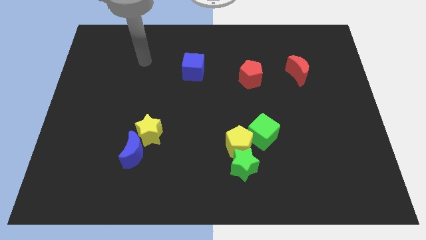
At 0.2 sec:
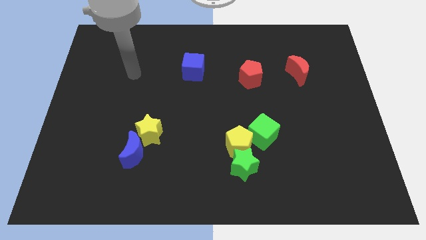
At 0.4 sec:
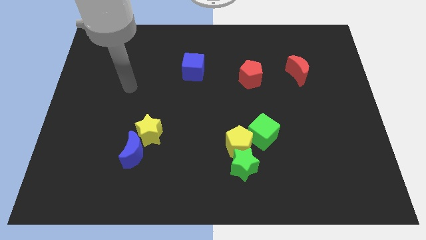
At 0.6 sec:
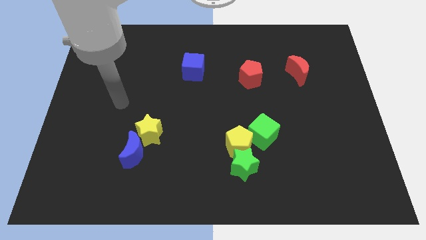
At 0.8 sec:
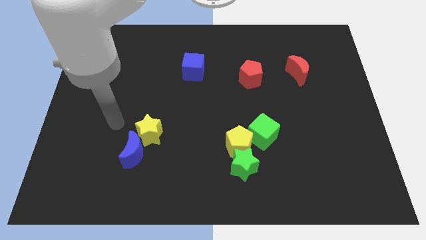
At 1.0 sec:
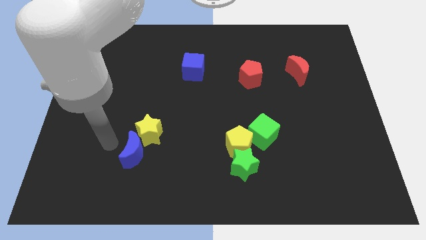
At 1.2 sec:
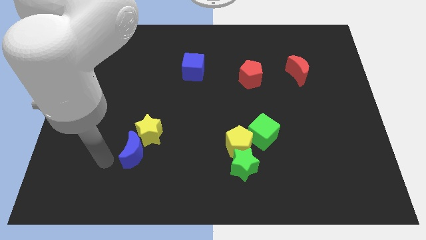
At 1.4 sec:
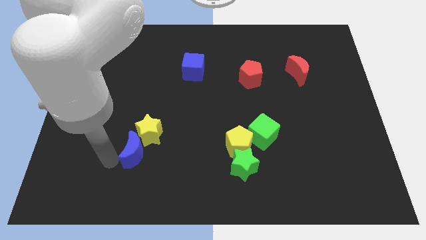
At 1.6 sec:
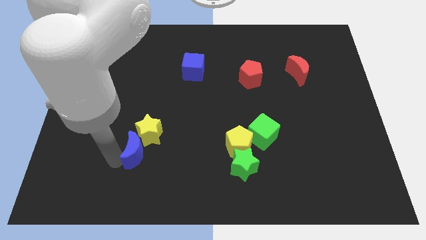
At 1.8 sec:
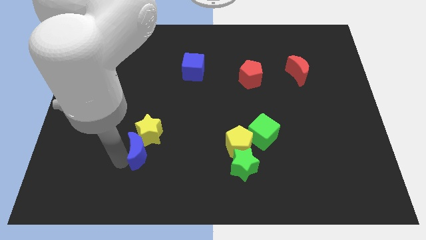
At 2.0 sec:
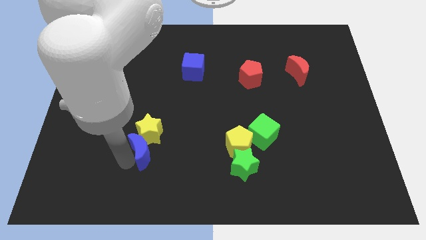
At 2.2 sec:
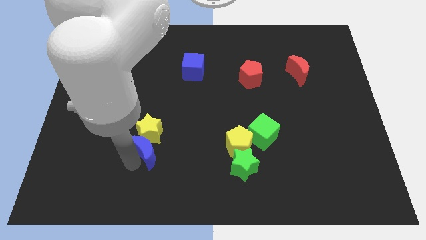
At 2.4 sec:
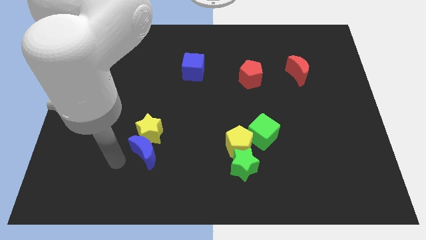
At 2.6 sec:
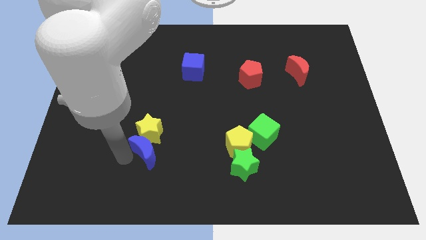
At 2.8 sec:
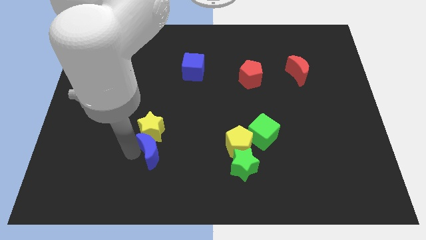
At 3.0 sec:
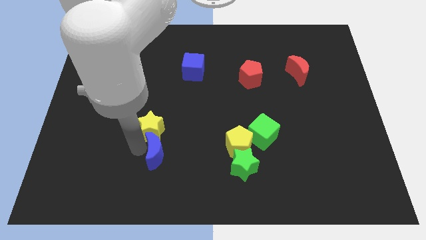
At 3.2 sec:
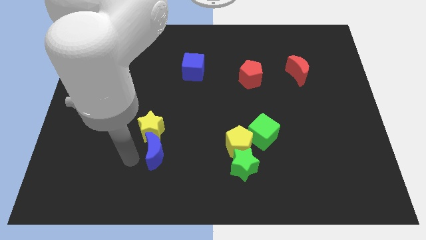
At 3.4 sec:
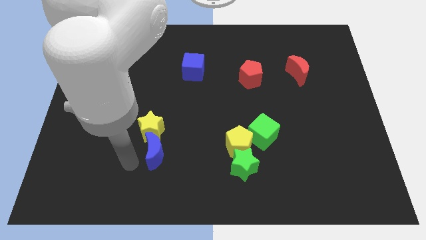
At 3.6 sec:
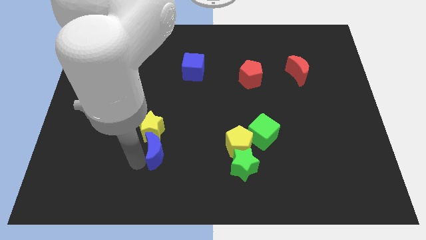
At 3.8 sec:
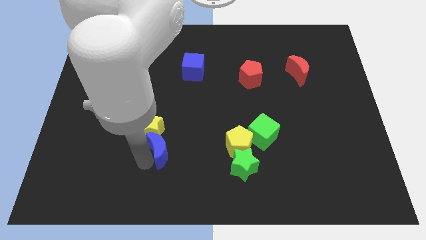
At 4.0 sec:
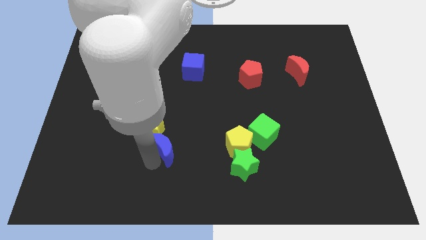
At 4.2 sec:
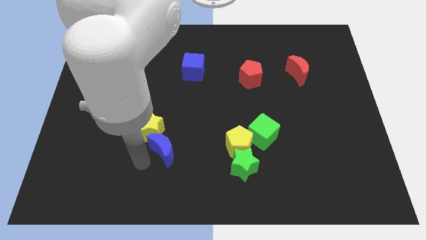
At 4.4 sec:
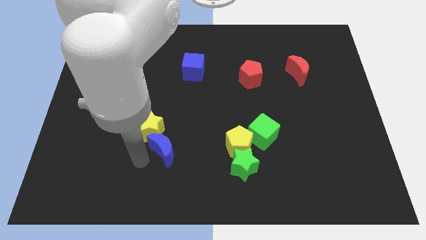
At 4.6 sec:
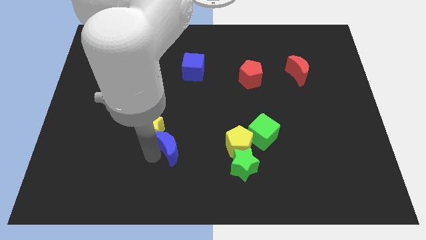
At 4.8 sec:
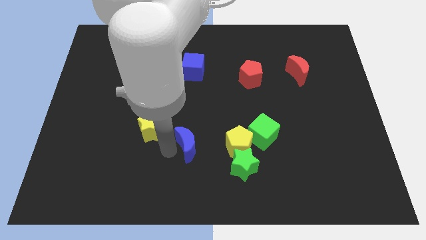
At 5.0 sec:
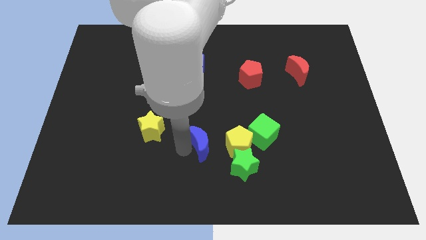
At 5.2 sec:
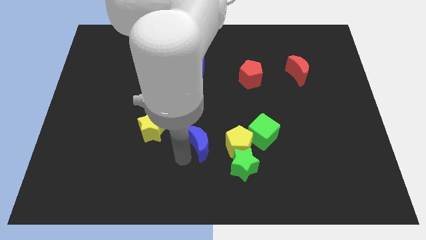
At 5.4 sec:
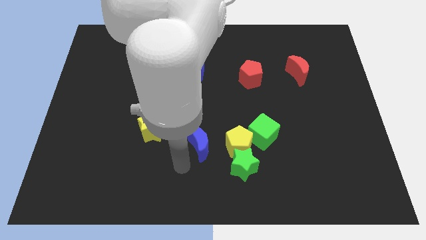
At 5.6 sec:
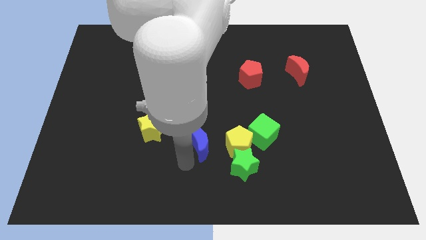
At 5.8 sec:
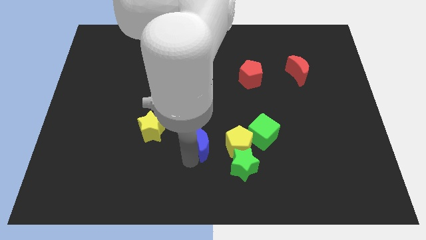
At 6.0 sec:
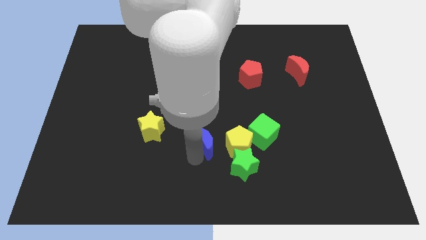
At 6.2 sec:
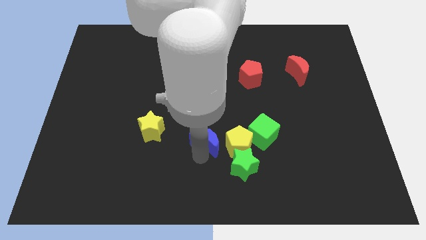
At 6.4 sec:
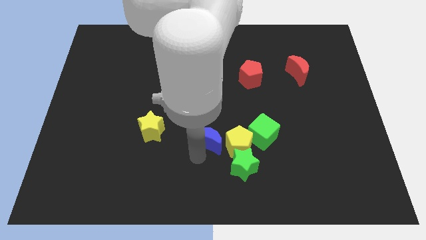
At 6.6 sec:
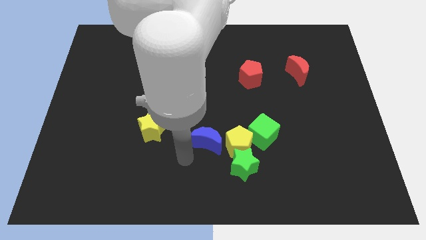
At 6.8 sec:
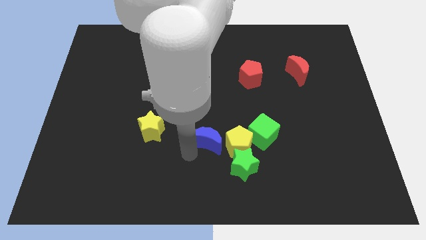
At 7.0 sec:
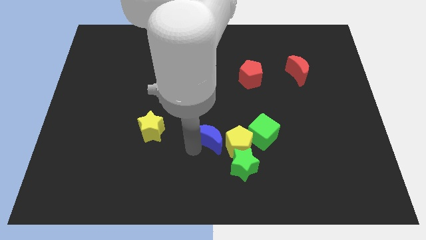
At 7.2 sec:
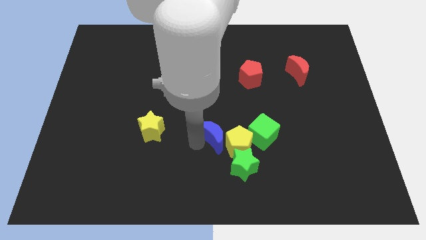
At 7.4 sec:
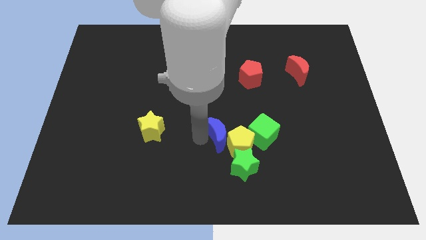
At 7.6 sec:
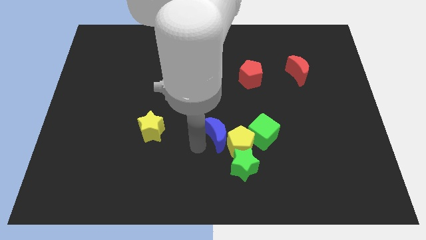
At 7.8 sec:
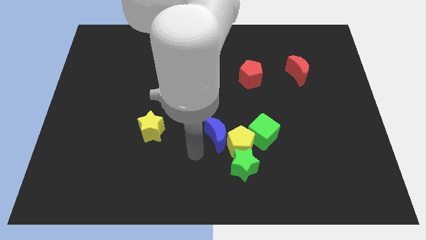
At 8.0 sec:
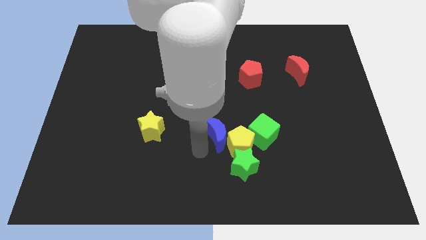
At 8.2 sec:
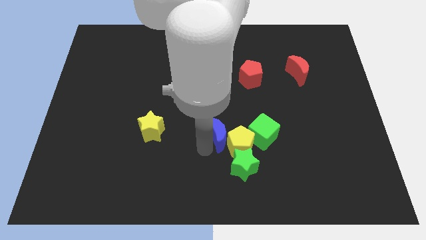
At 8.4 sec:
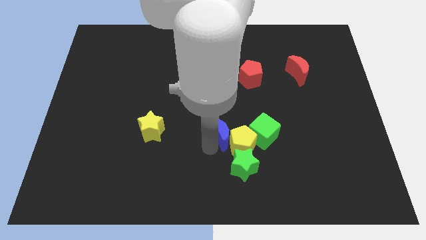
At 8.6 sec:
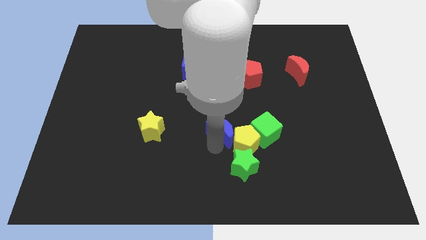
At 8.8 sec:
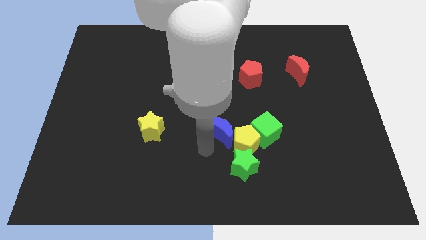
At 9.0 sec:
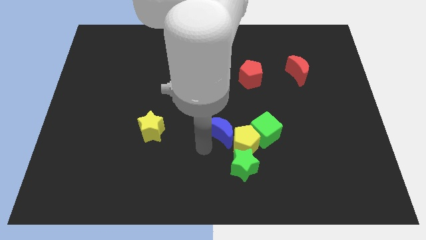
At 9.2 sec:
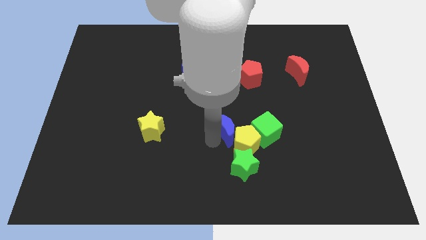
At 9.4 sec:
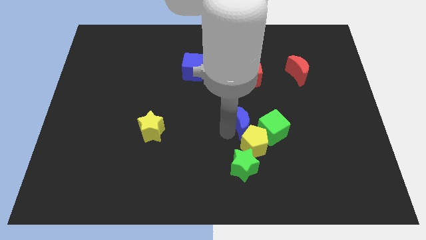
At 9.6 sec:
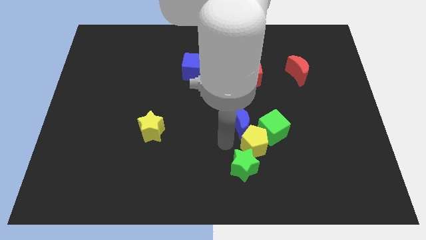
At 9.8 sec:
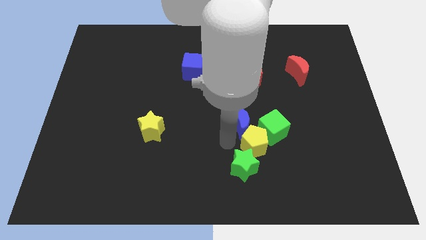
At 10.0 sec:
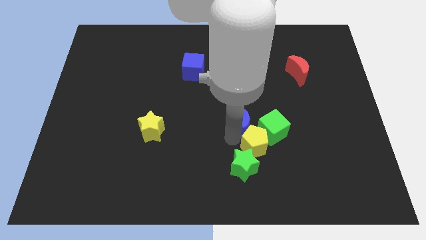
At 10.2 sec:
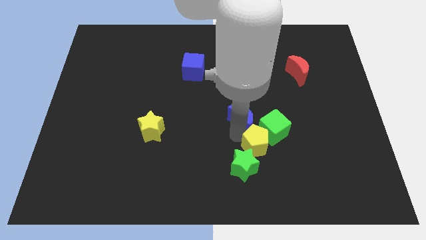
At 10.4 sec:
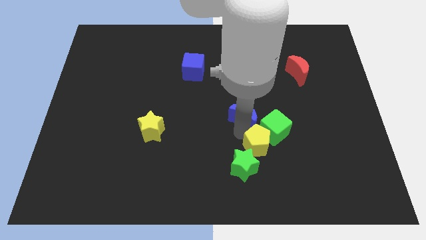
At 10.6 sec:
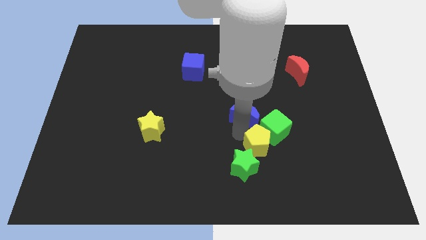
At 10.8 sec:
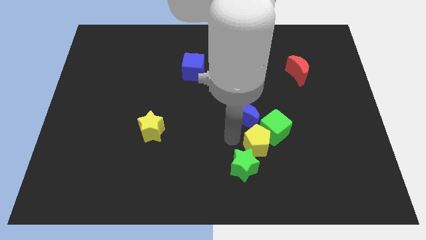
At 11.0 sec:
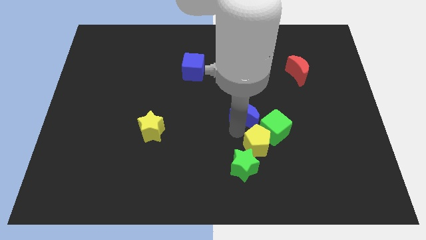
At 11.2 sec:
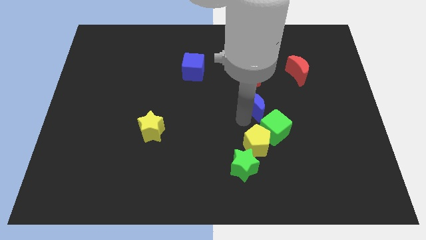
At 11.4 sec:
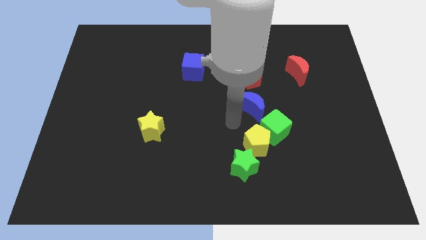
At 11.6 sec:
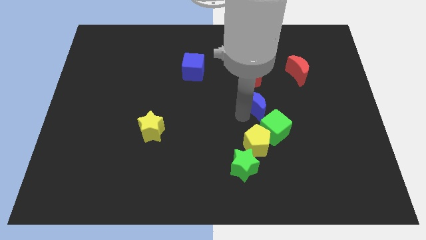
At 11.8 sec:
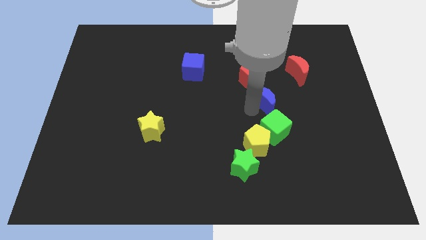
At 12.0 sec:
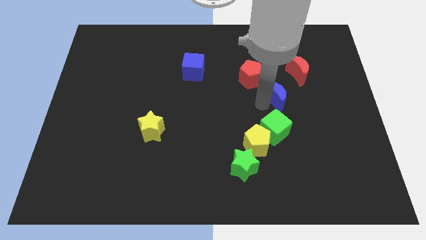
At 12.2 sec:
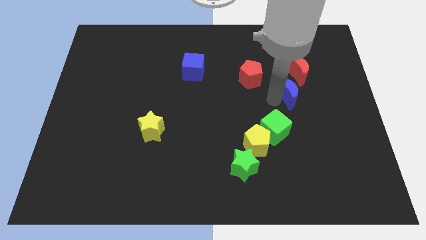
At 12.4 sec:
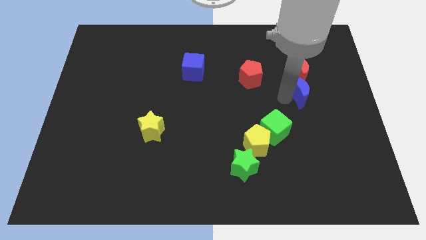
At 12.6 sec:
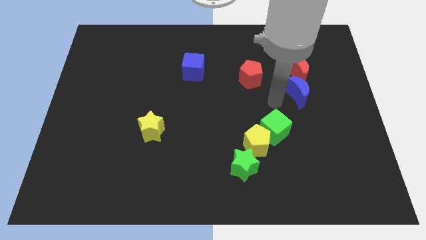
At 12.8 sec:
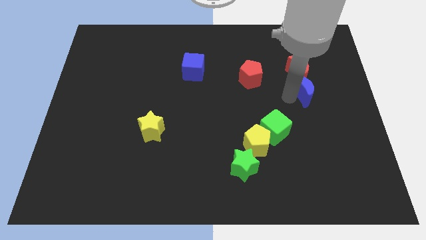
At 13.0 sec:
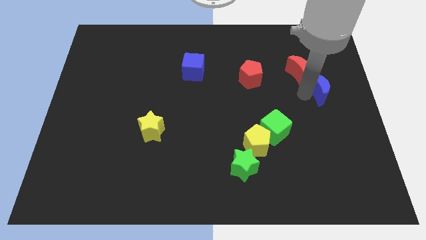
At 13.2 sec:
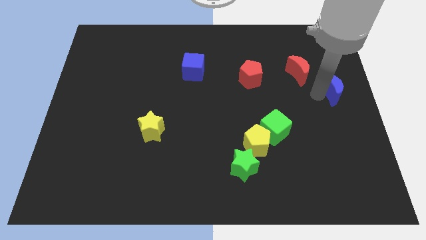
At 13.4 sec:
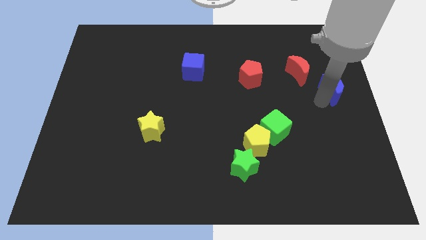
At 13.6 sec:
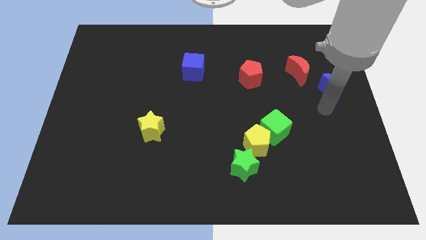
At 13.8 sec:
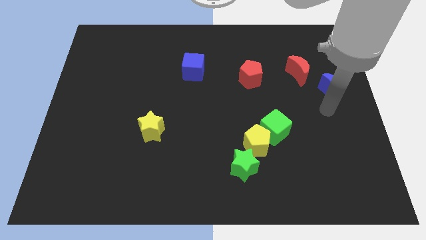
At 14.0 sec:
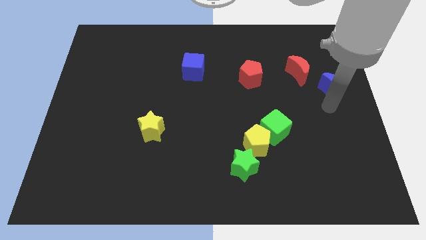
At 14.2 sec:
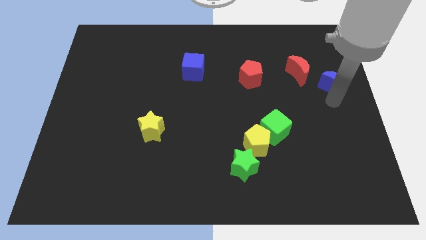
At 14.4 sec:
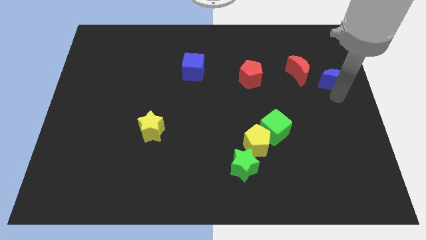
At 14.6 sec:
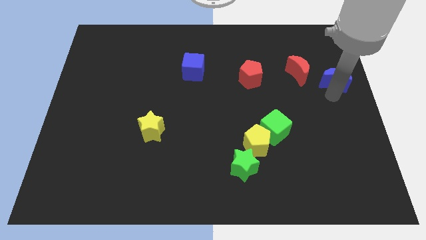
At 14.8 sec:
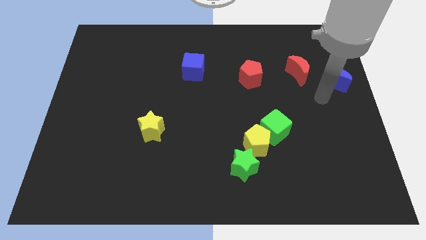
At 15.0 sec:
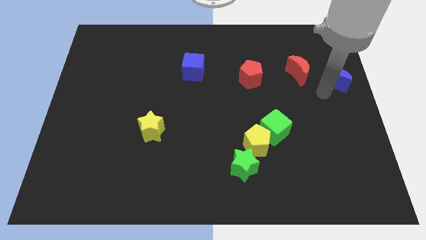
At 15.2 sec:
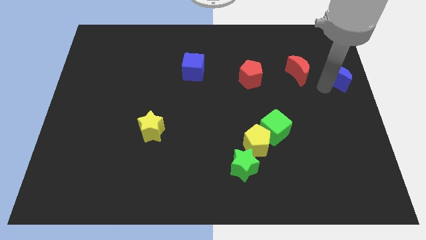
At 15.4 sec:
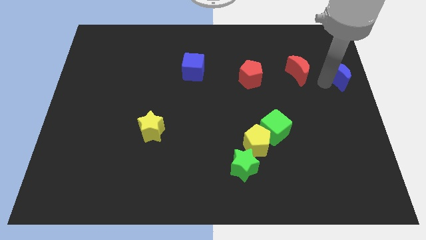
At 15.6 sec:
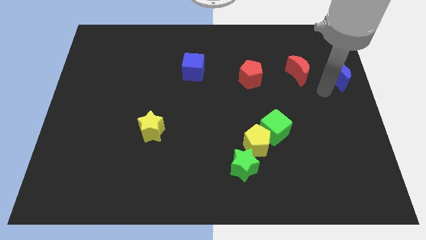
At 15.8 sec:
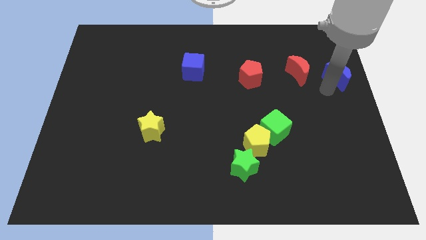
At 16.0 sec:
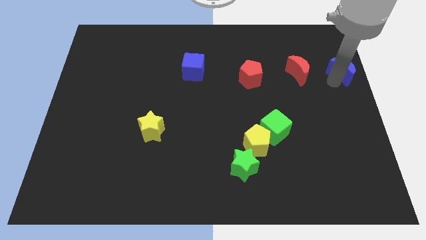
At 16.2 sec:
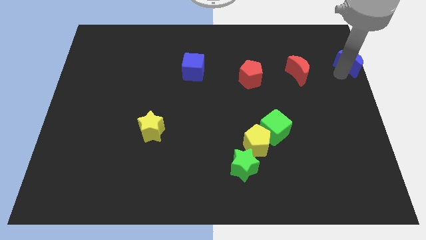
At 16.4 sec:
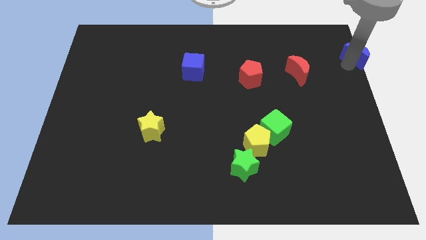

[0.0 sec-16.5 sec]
slide the blue moon to the top right
